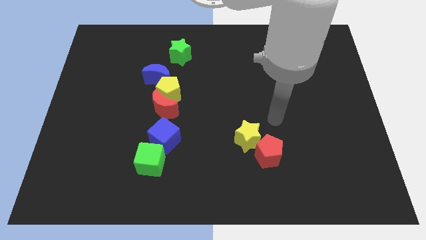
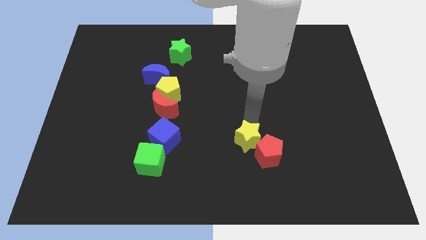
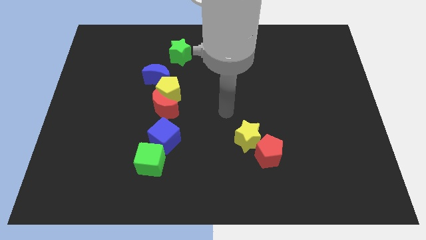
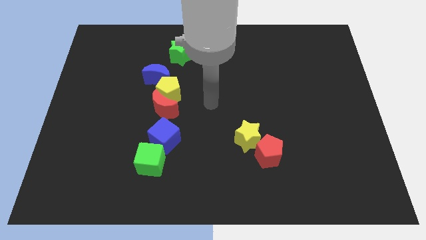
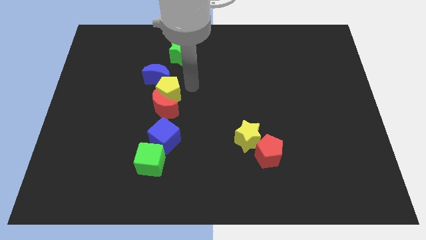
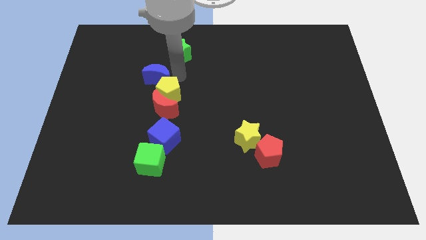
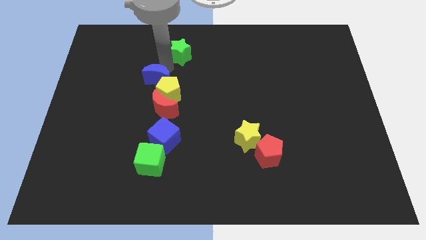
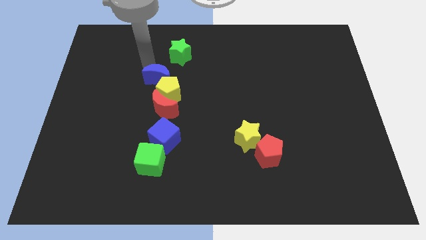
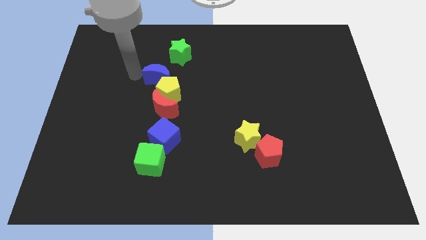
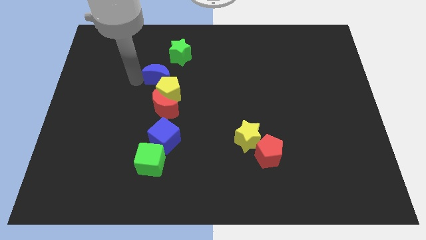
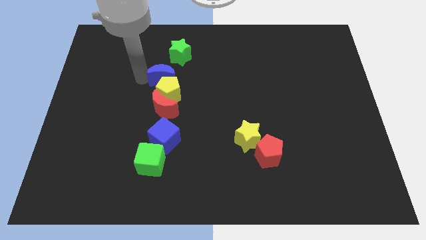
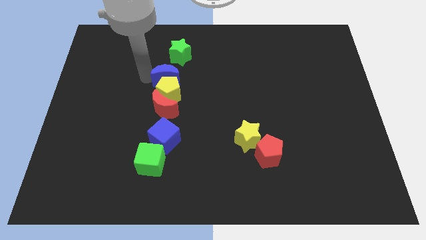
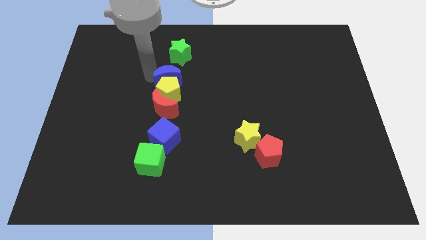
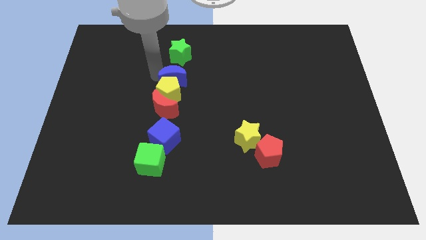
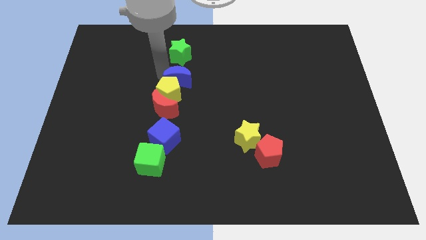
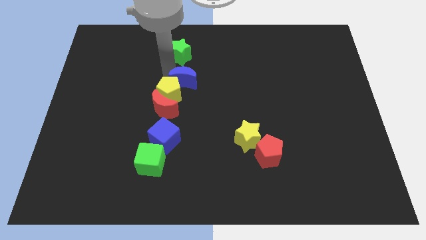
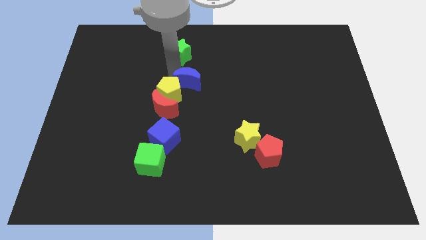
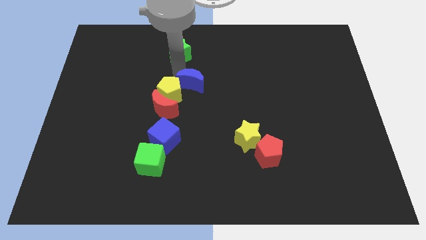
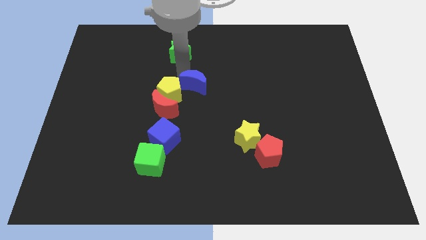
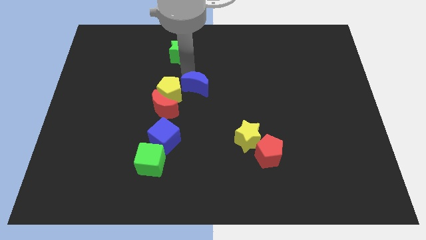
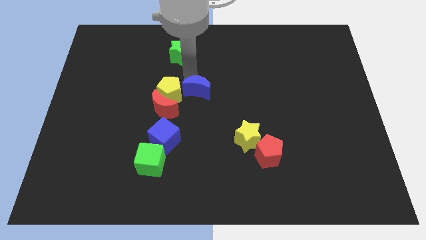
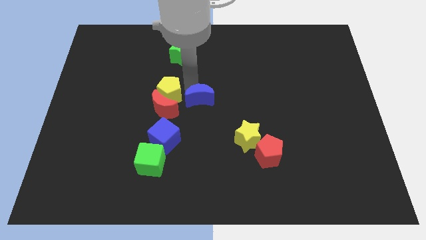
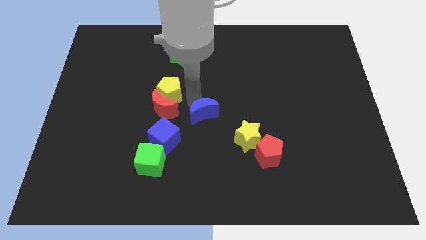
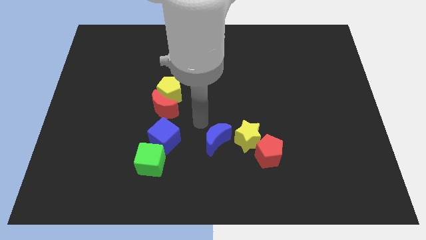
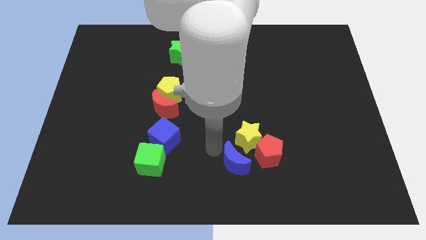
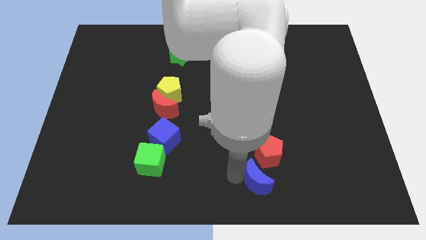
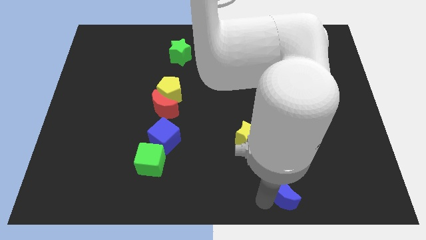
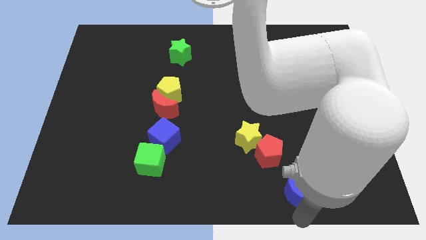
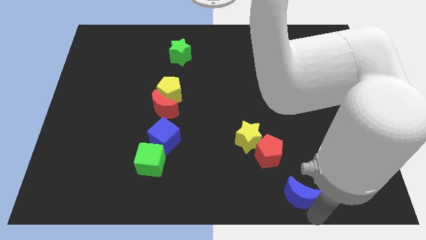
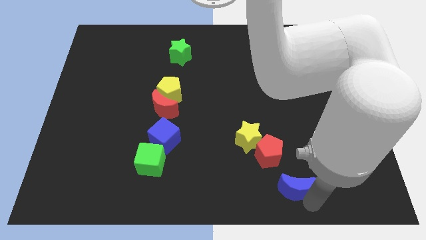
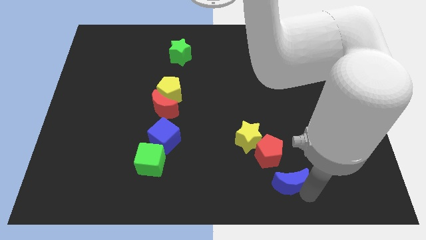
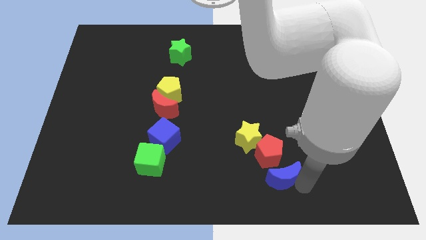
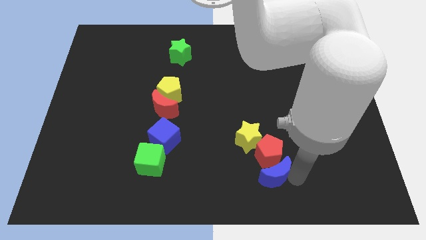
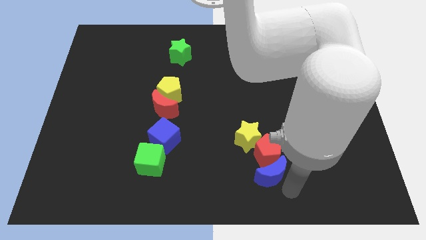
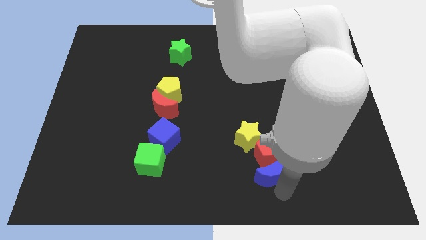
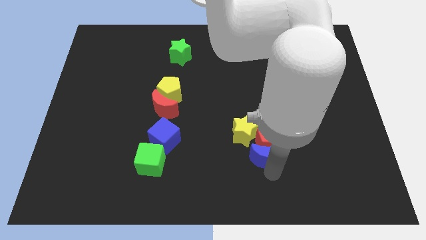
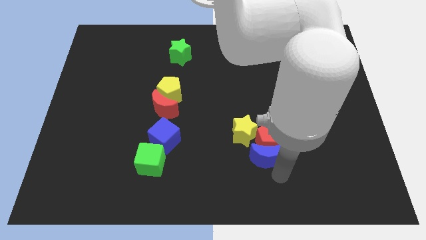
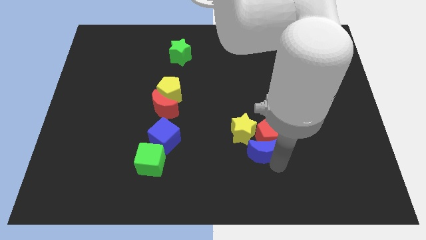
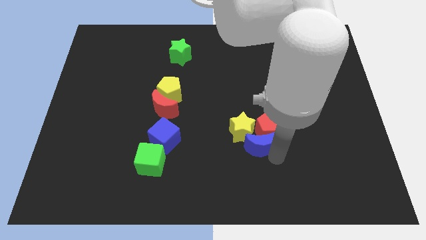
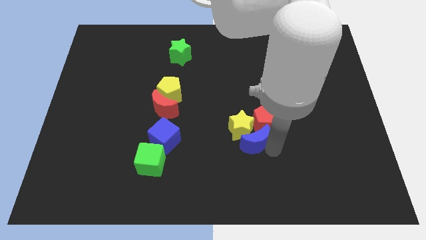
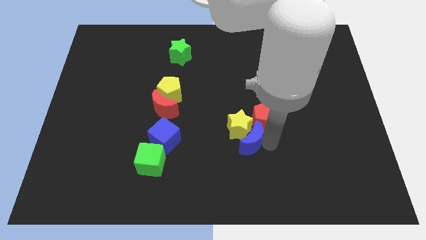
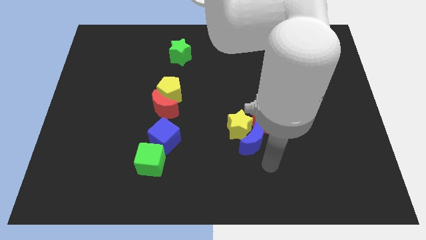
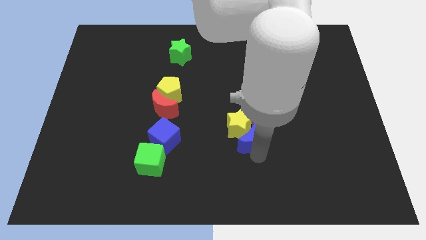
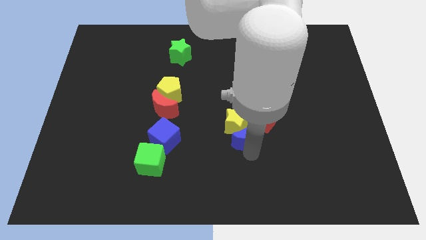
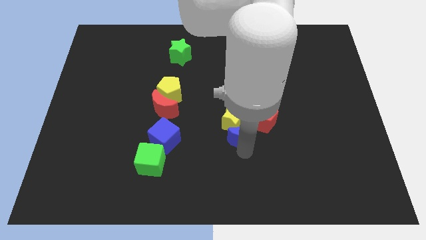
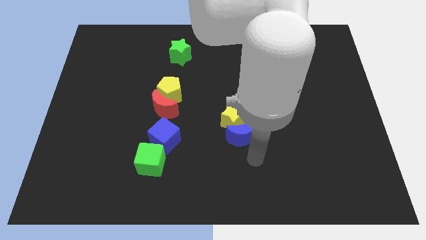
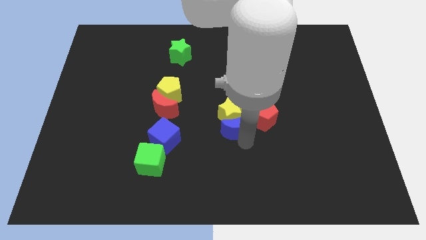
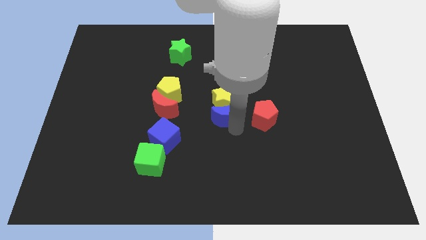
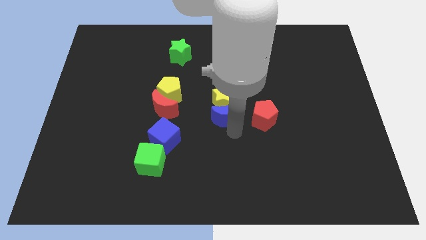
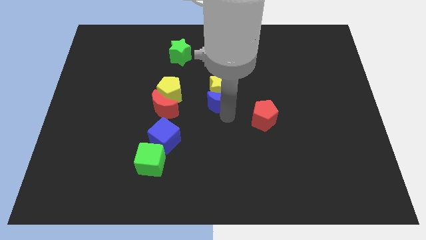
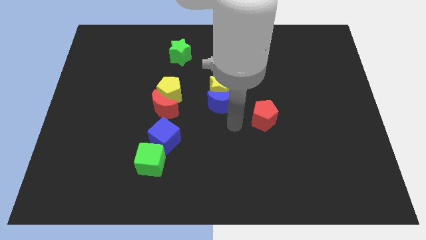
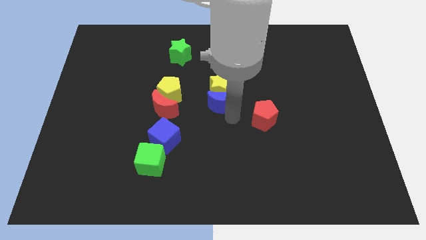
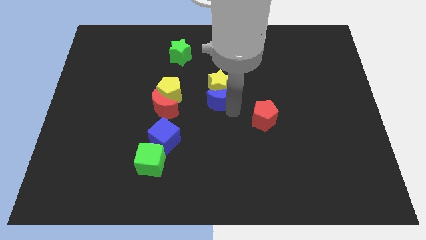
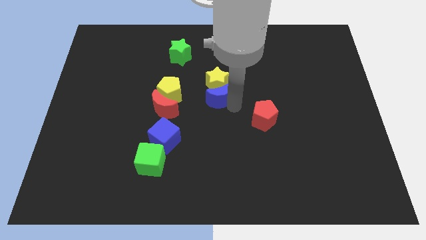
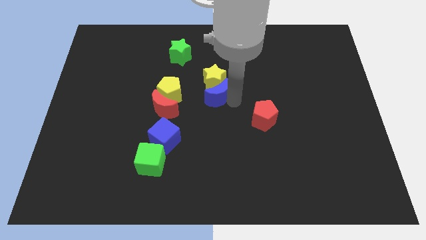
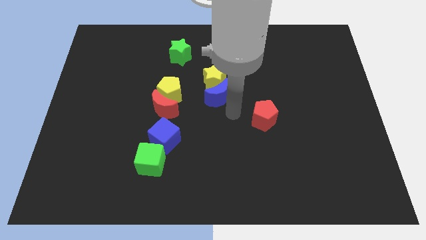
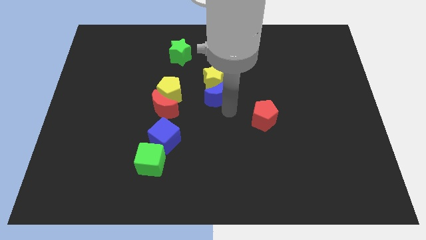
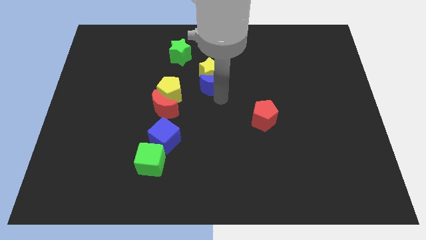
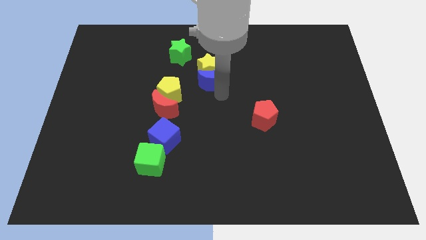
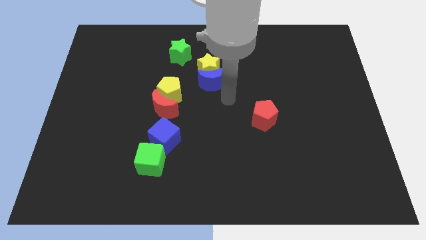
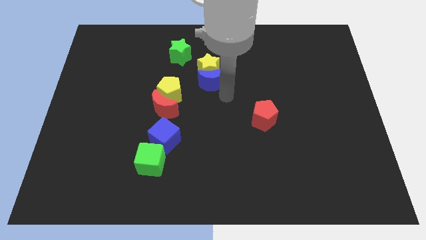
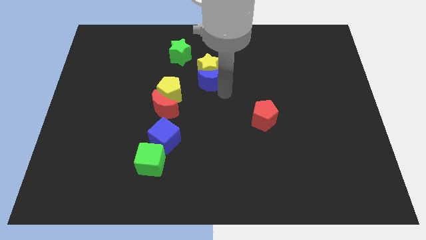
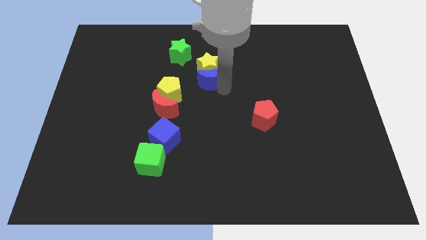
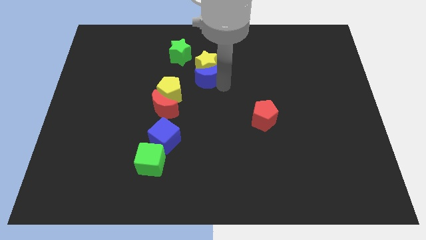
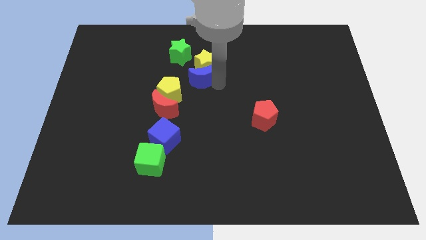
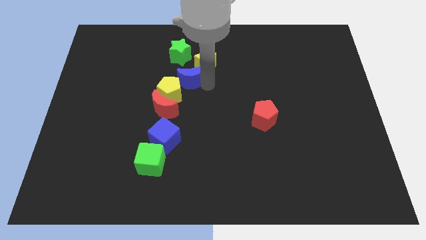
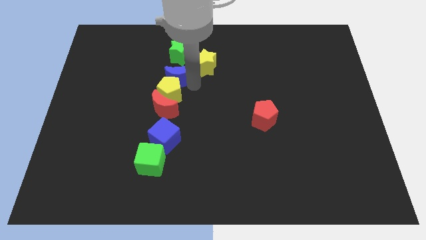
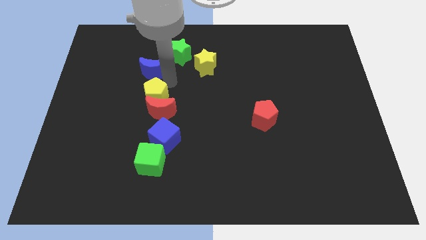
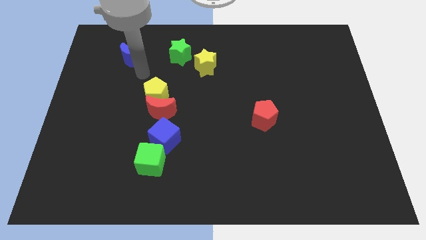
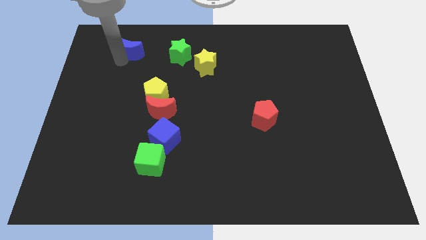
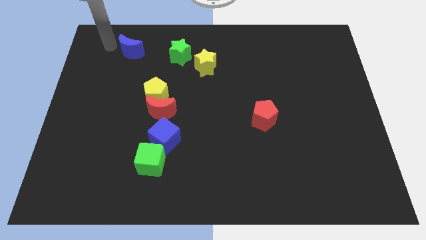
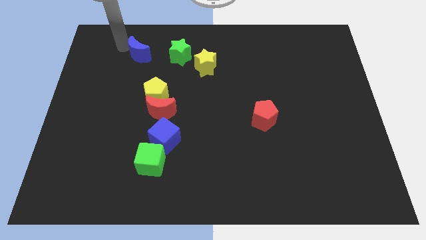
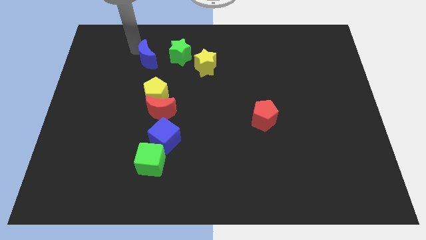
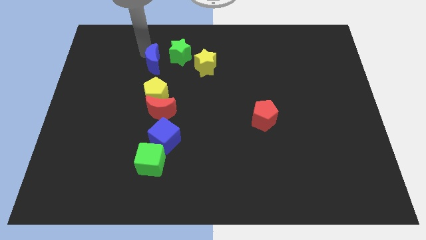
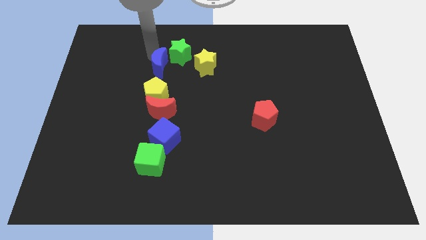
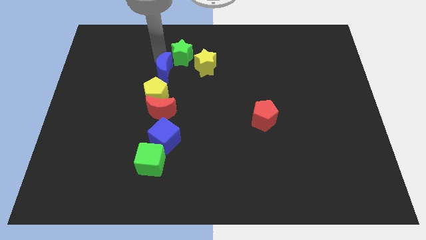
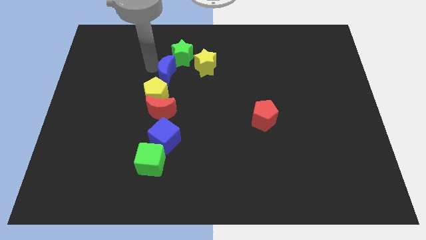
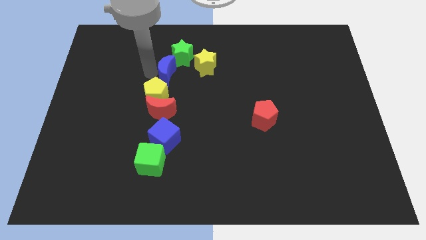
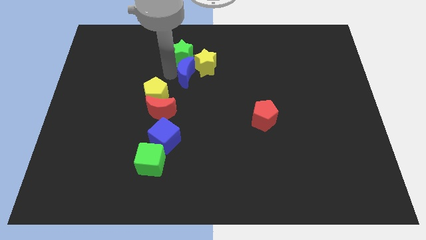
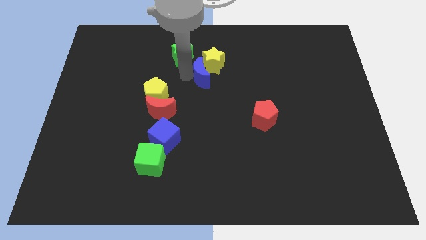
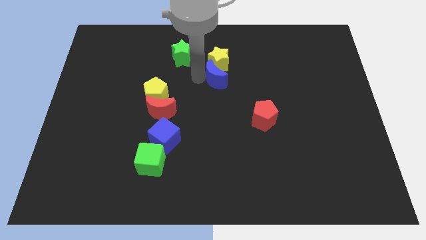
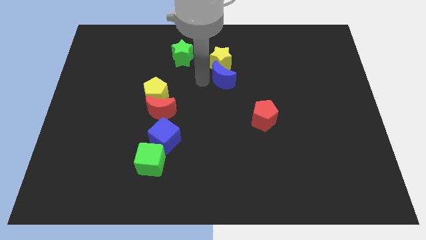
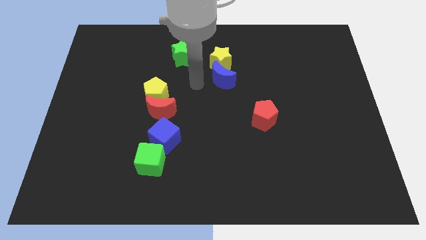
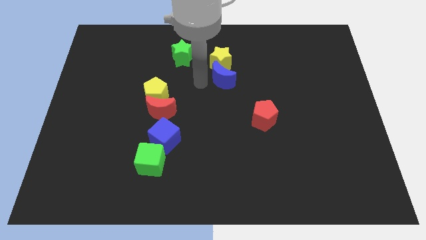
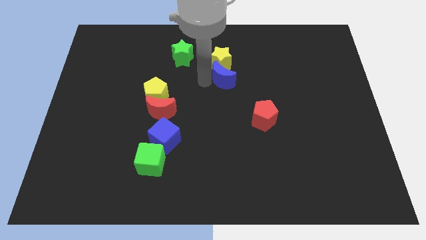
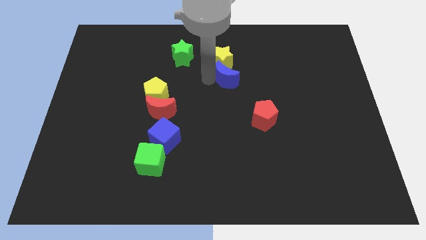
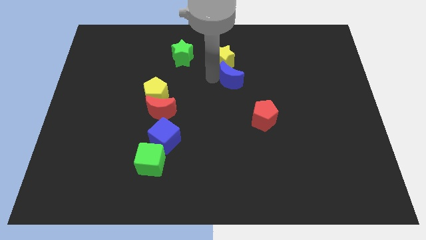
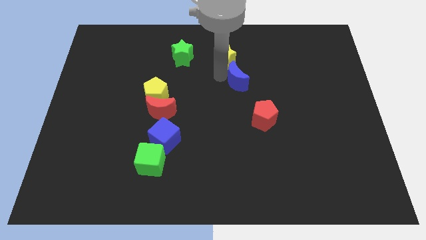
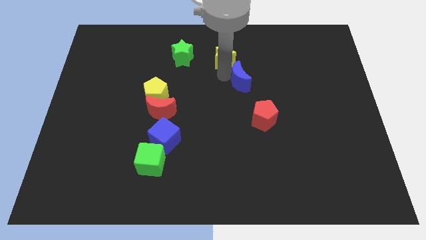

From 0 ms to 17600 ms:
move the blue moon right
